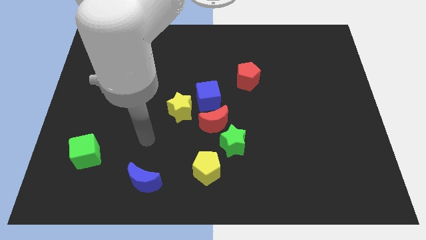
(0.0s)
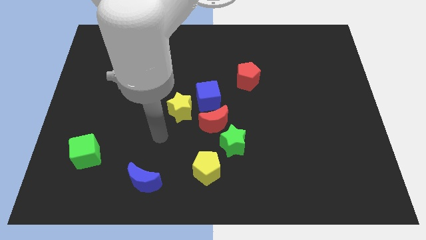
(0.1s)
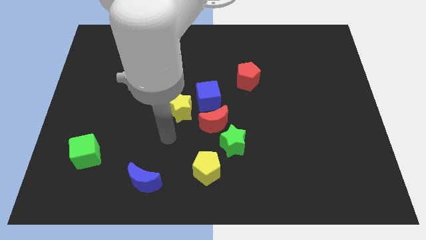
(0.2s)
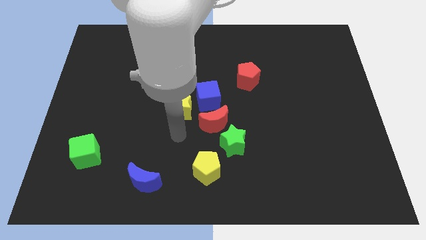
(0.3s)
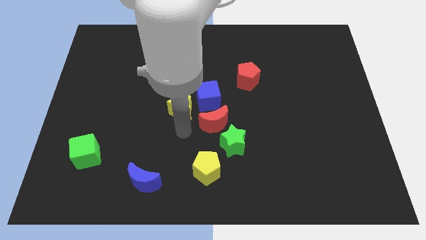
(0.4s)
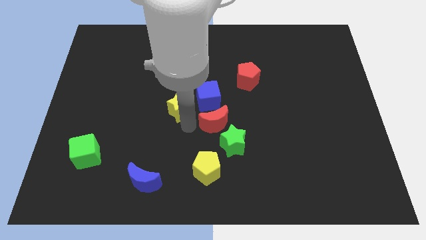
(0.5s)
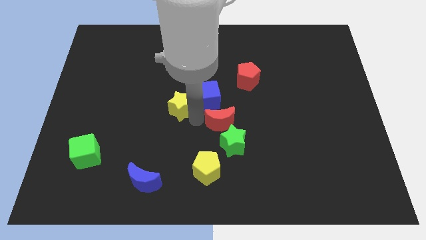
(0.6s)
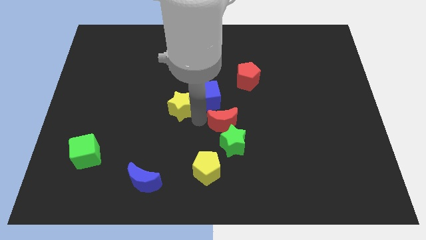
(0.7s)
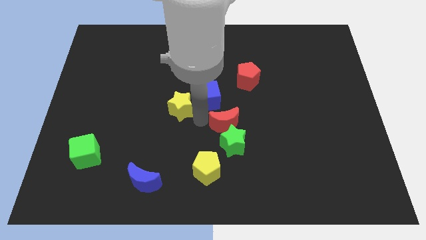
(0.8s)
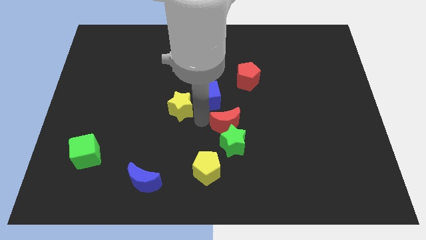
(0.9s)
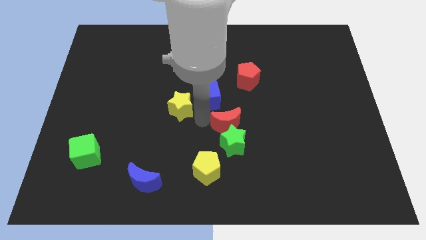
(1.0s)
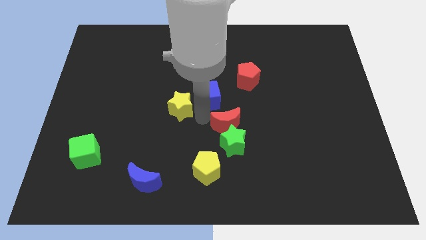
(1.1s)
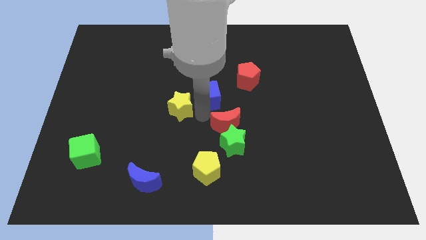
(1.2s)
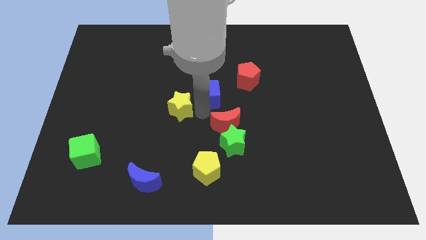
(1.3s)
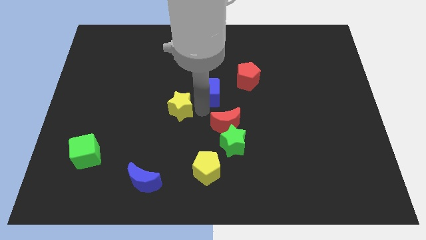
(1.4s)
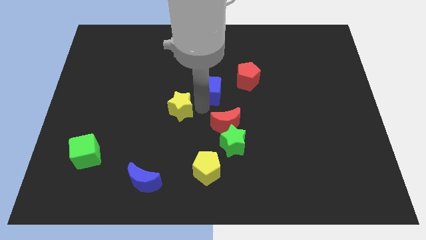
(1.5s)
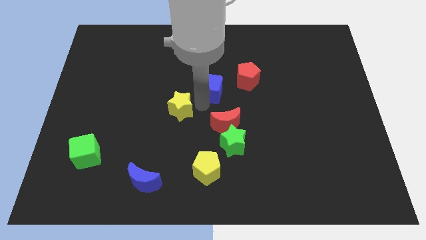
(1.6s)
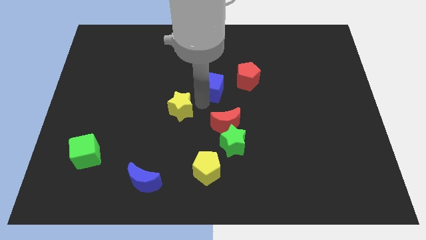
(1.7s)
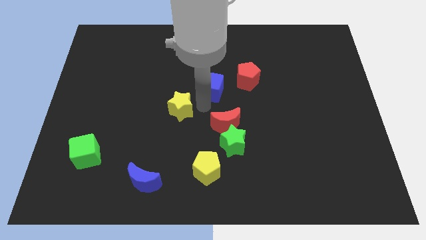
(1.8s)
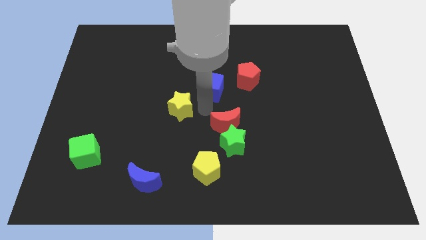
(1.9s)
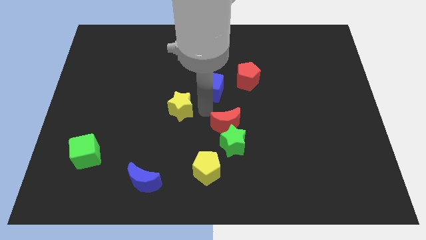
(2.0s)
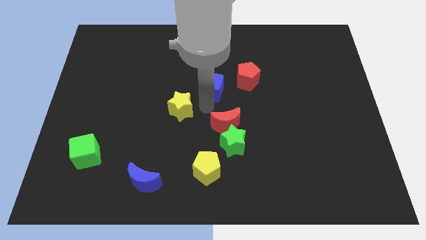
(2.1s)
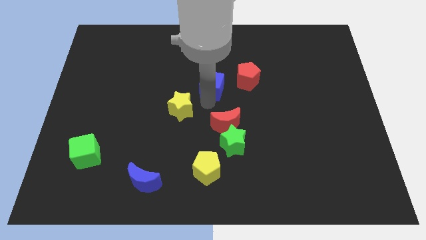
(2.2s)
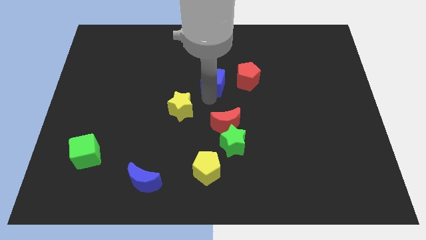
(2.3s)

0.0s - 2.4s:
move the blue cube away from the red moon and yellow star

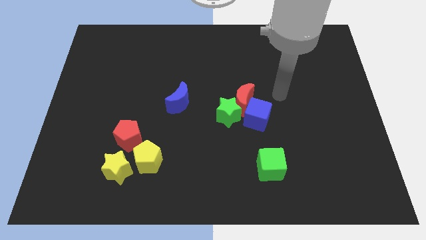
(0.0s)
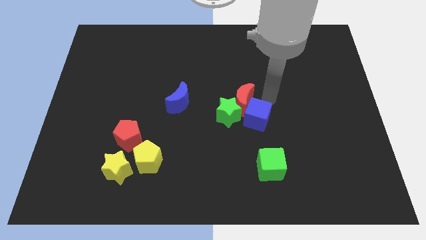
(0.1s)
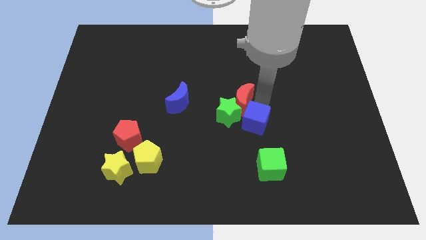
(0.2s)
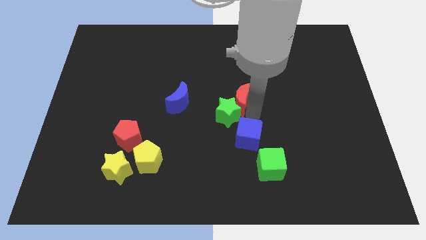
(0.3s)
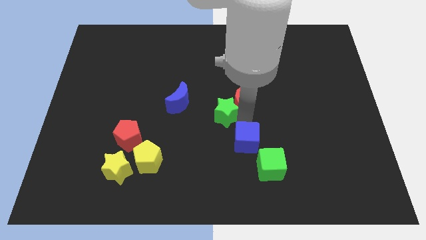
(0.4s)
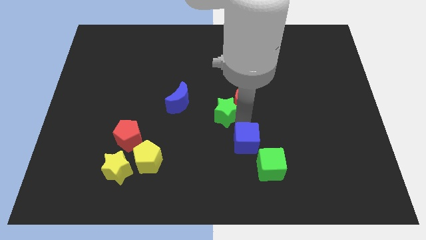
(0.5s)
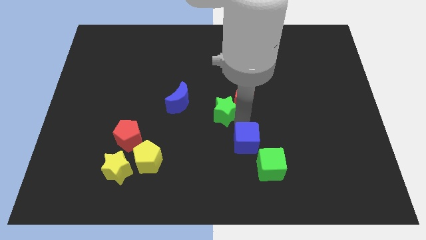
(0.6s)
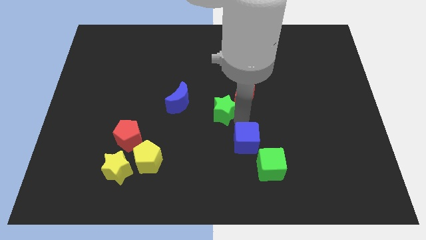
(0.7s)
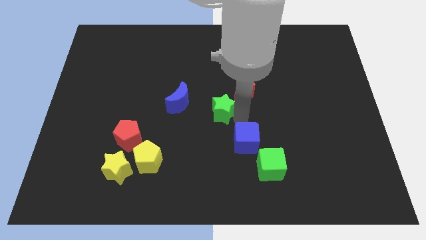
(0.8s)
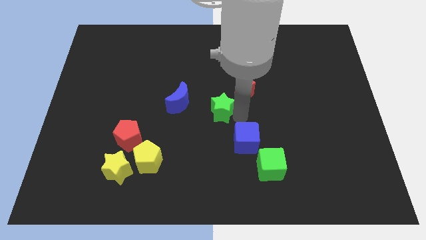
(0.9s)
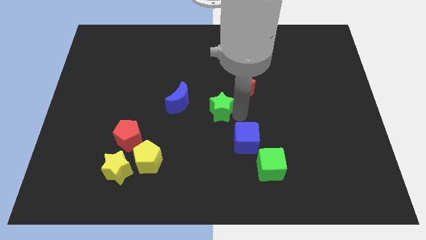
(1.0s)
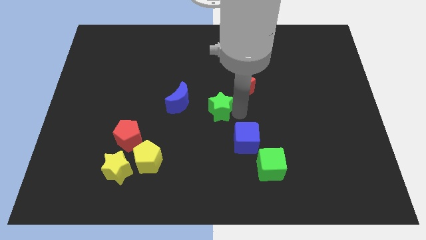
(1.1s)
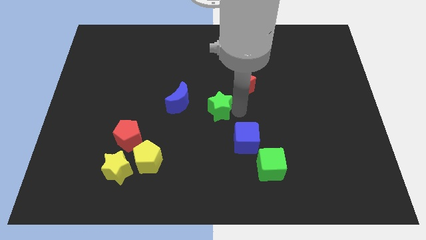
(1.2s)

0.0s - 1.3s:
pull the red moon apart from the green star and blue cube

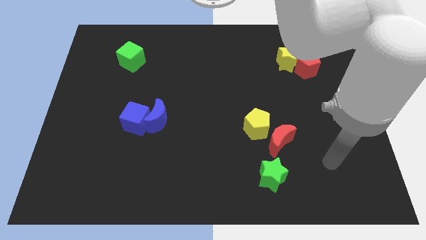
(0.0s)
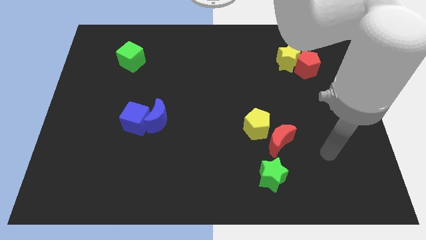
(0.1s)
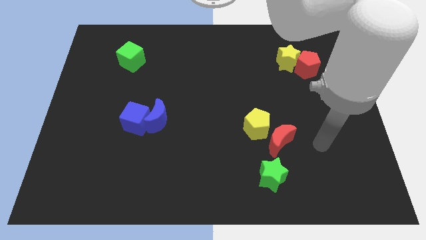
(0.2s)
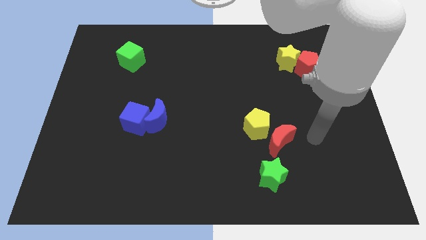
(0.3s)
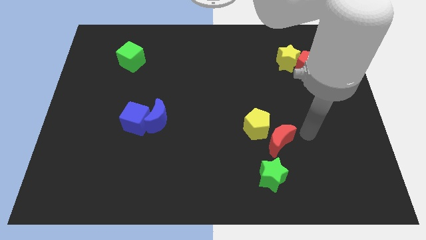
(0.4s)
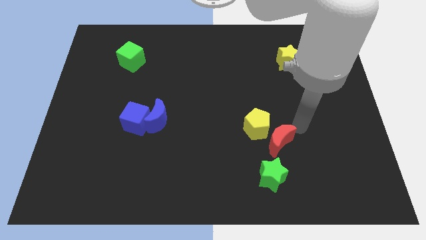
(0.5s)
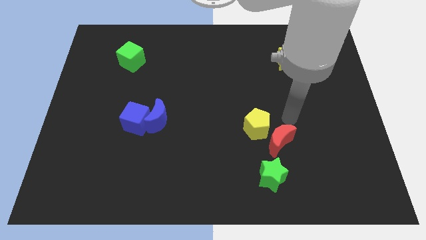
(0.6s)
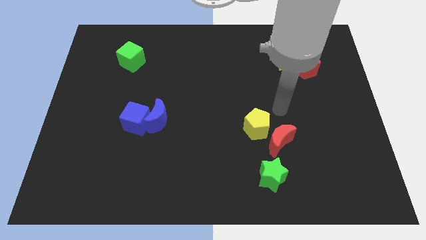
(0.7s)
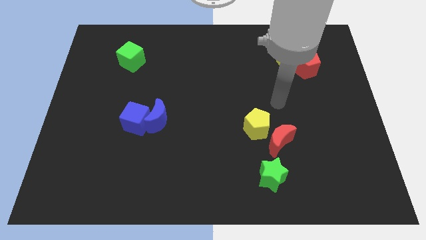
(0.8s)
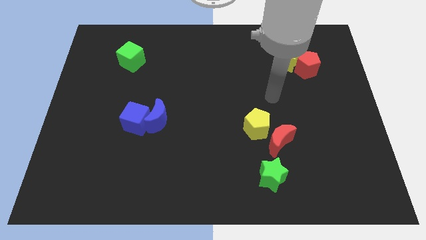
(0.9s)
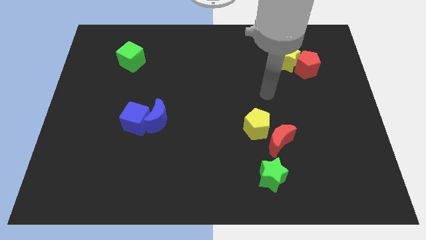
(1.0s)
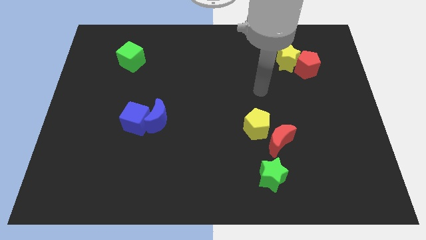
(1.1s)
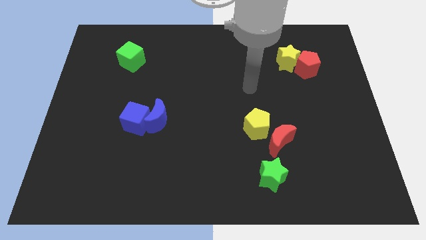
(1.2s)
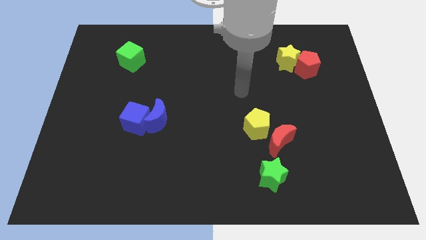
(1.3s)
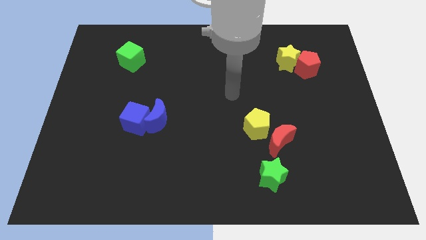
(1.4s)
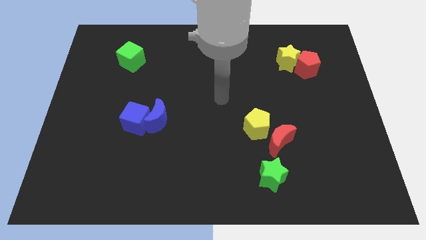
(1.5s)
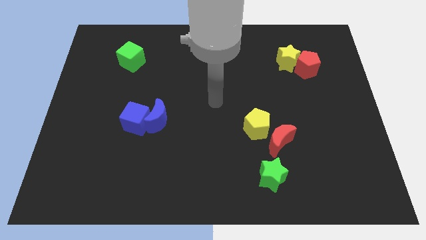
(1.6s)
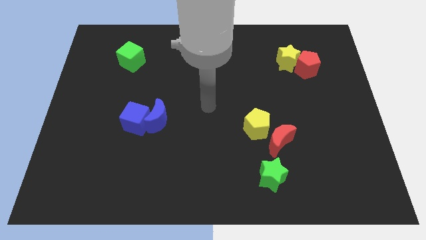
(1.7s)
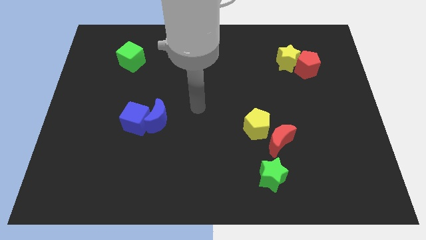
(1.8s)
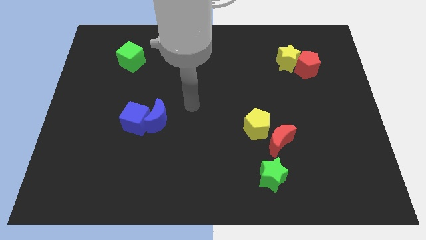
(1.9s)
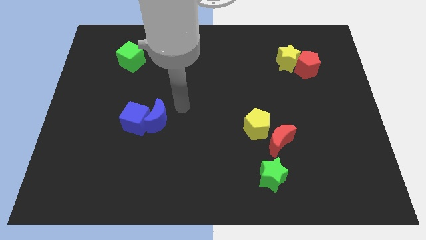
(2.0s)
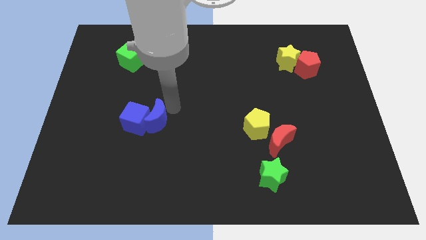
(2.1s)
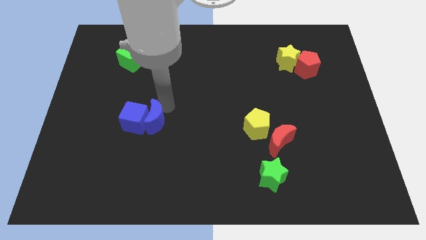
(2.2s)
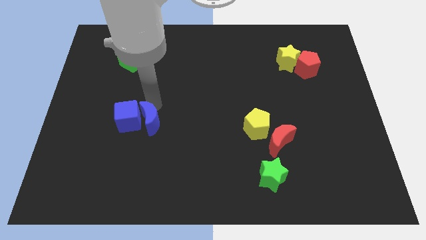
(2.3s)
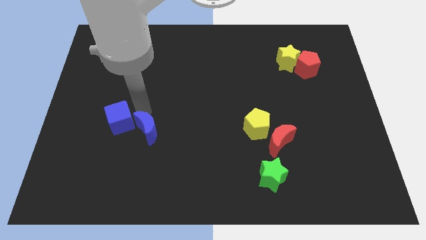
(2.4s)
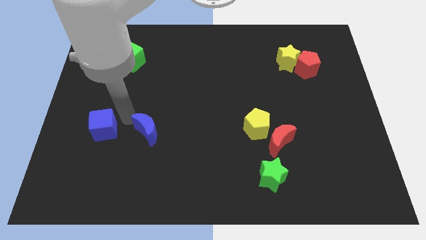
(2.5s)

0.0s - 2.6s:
pull the blue moon apart from the blue cube

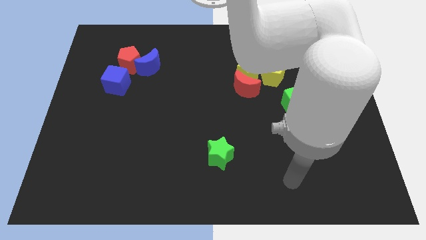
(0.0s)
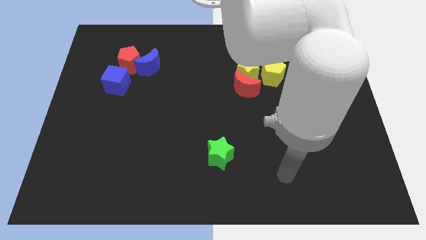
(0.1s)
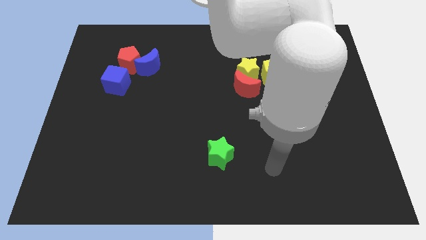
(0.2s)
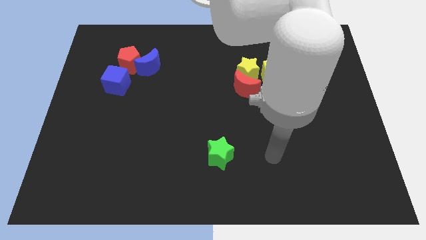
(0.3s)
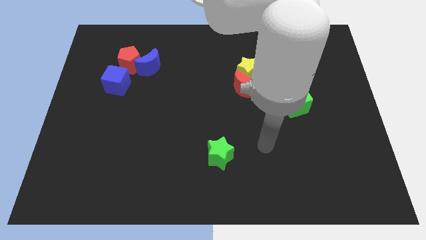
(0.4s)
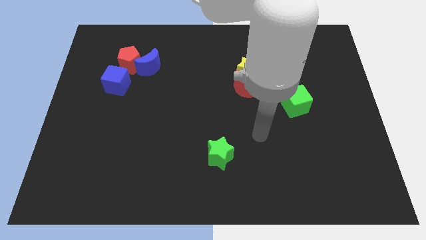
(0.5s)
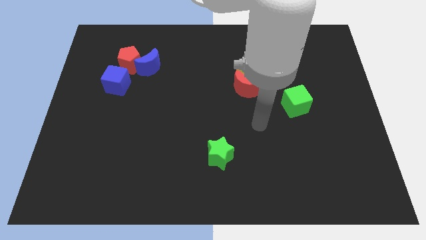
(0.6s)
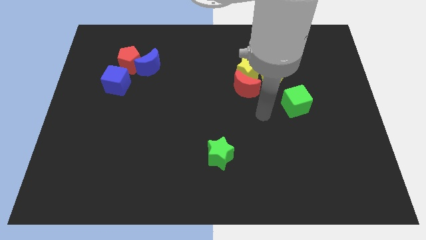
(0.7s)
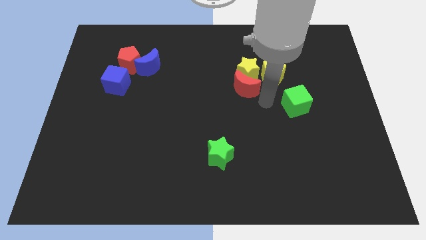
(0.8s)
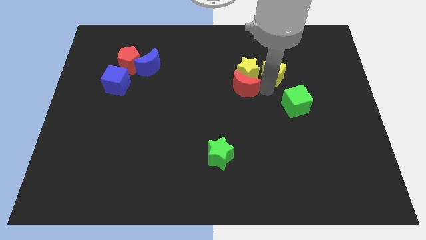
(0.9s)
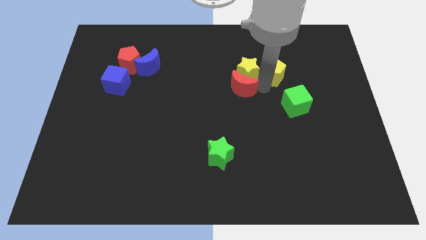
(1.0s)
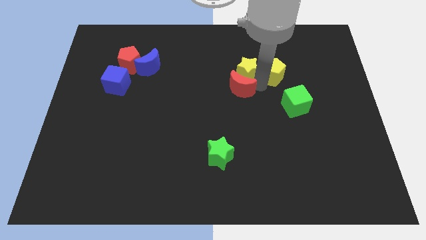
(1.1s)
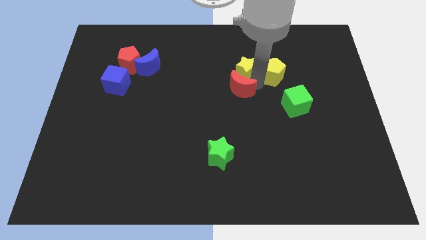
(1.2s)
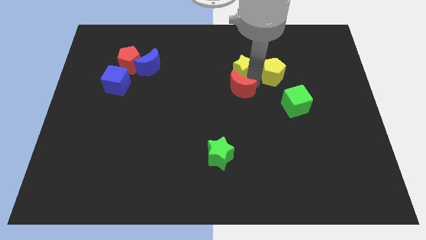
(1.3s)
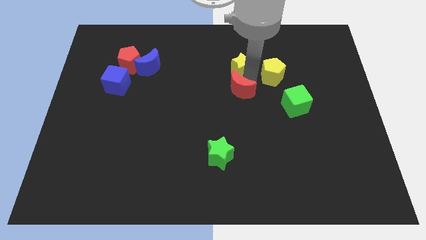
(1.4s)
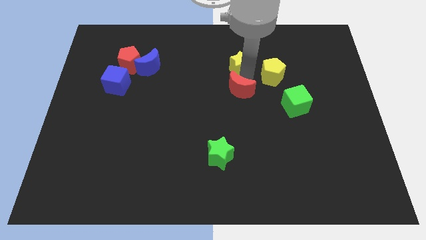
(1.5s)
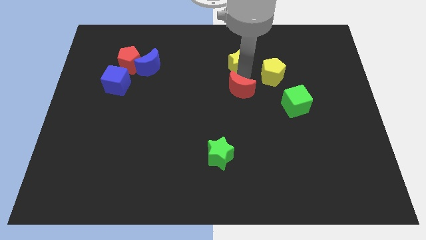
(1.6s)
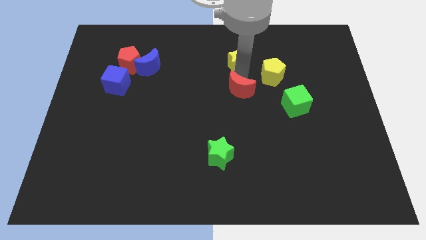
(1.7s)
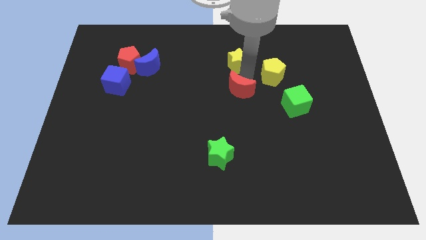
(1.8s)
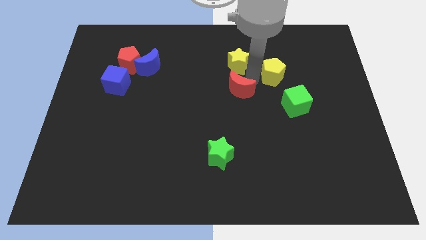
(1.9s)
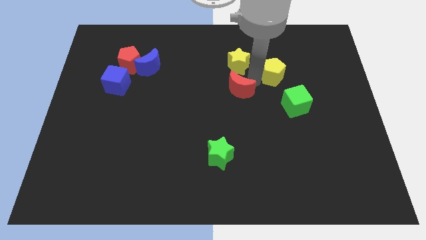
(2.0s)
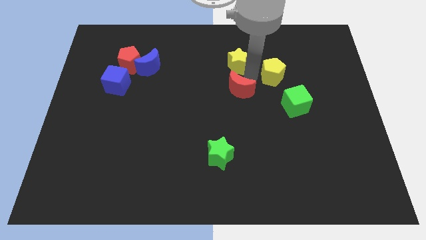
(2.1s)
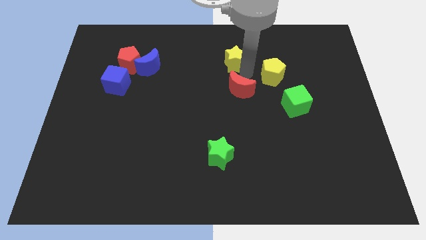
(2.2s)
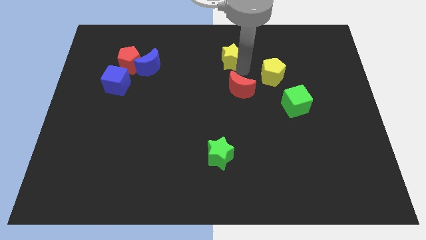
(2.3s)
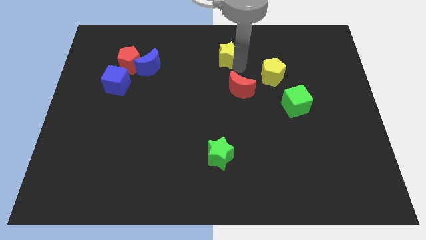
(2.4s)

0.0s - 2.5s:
separate the yellow star from the red moon and yellow pentagon

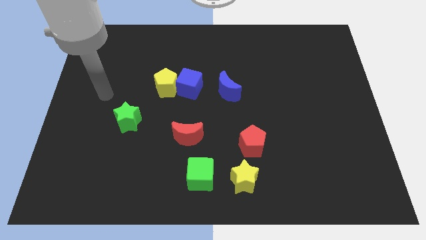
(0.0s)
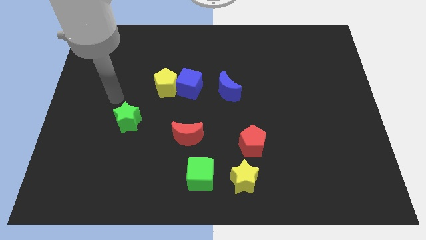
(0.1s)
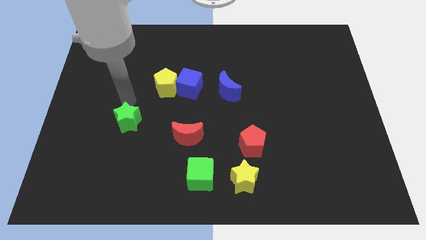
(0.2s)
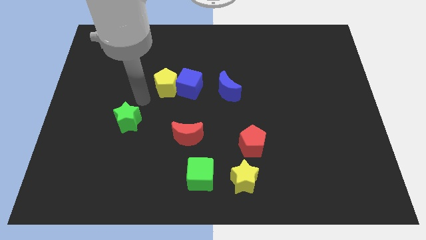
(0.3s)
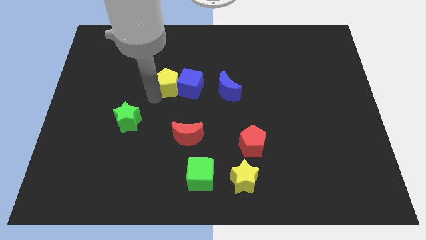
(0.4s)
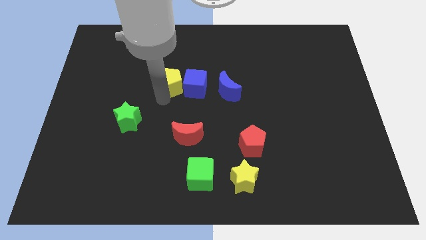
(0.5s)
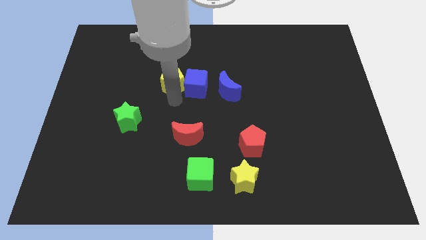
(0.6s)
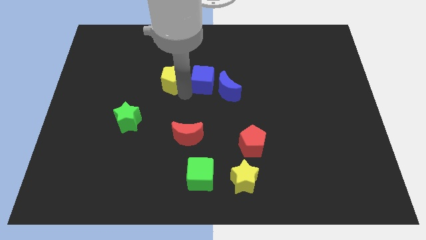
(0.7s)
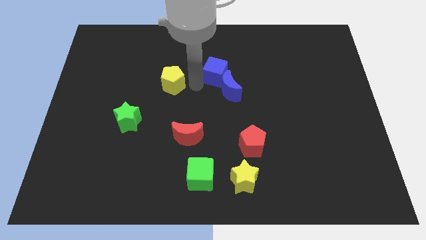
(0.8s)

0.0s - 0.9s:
pull the yellow pentagon apart from the blue cube
